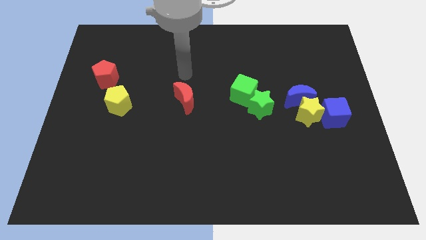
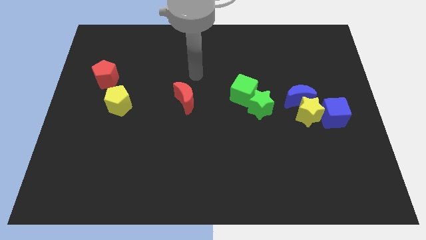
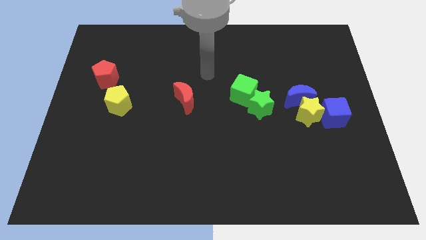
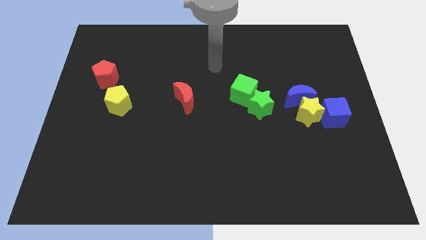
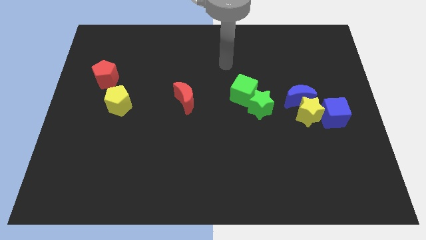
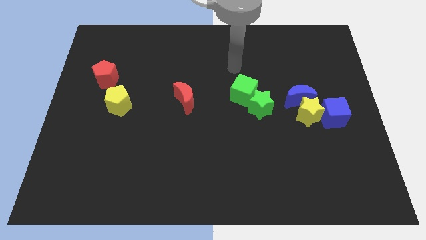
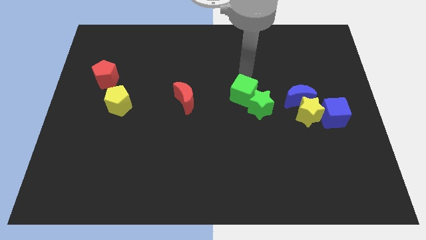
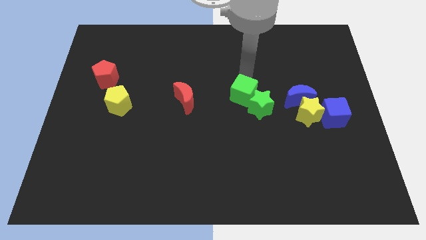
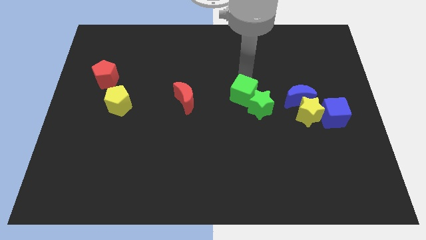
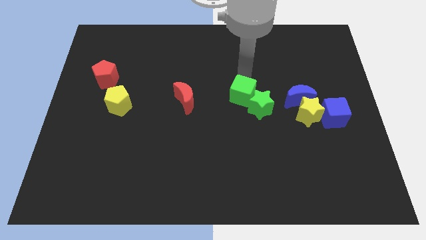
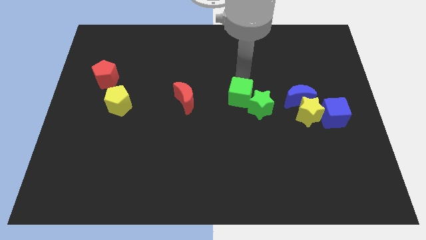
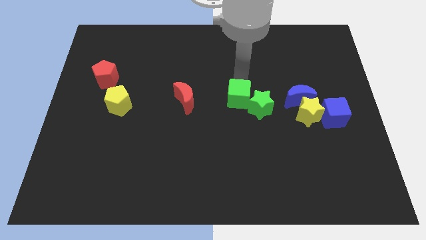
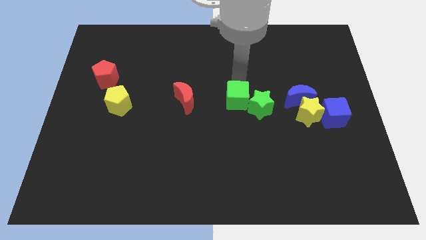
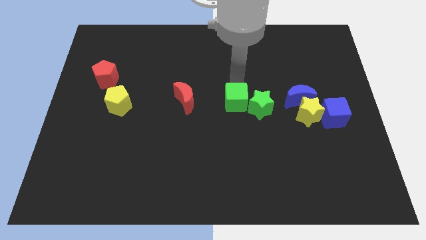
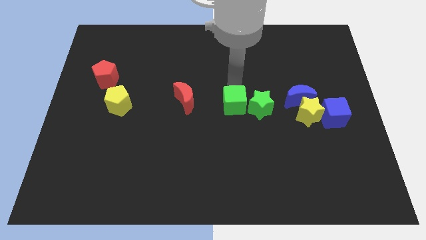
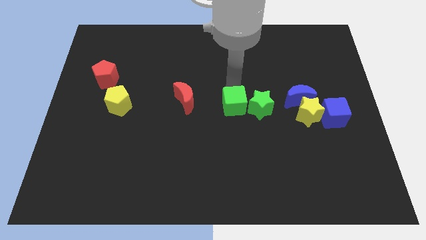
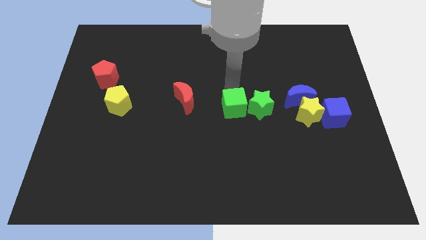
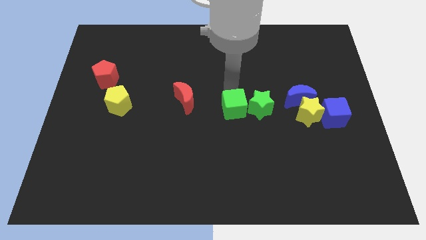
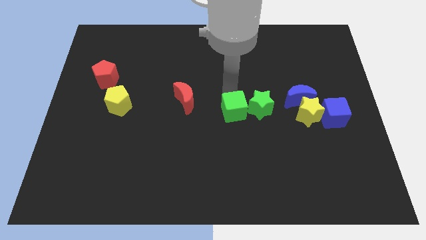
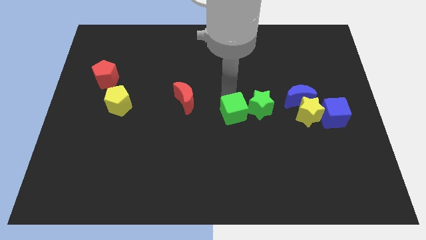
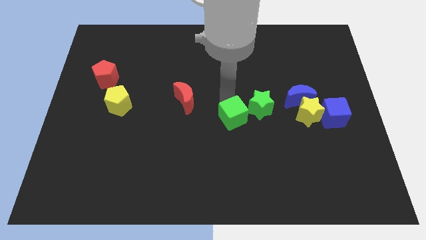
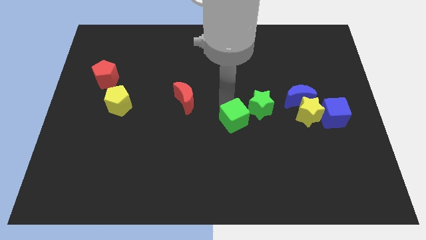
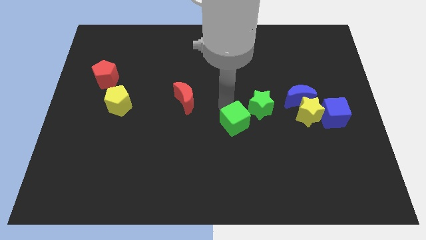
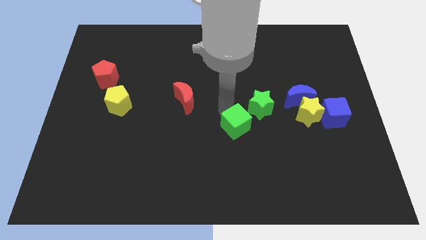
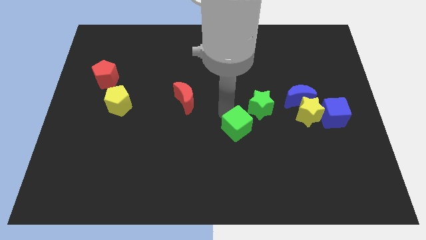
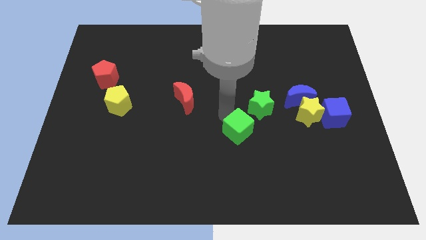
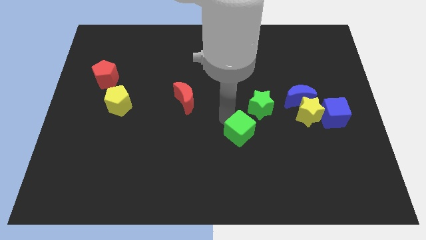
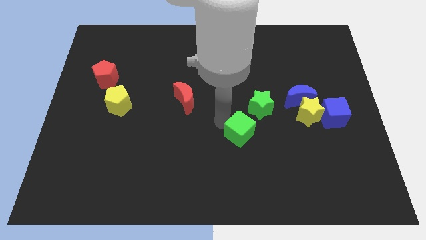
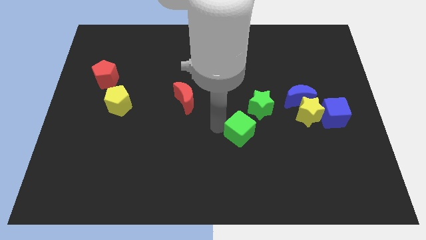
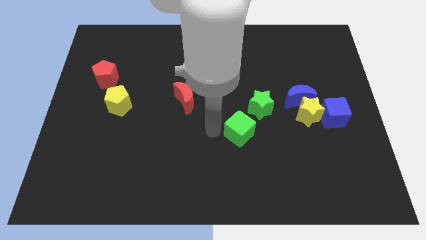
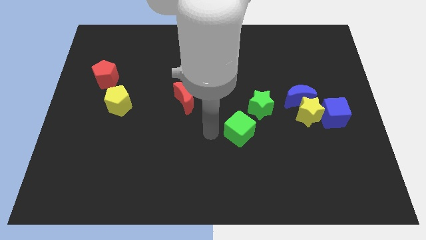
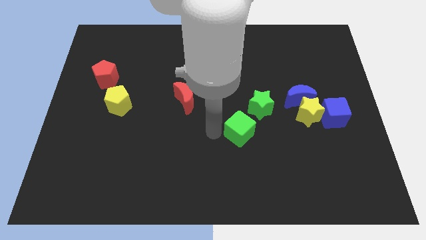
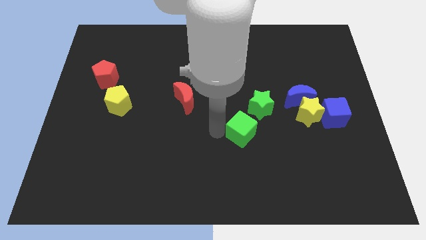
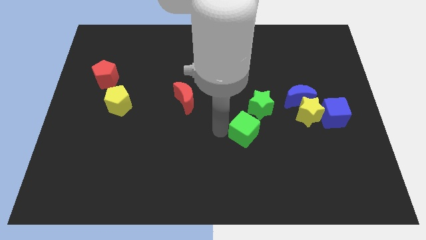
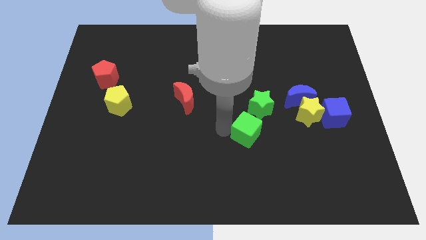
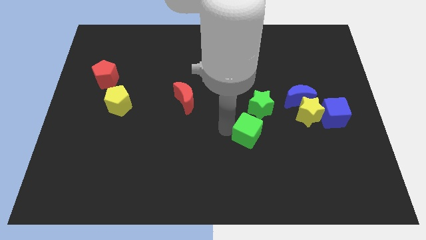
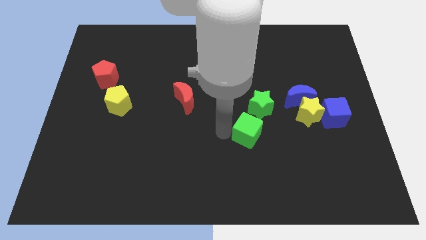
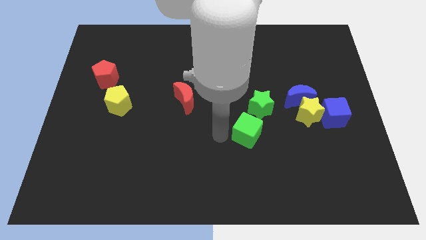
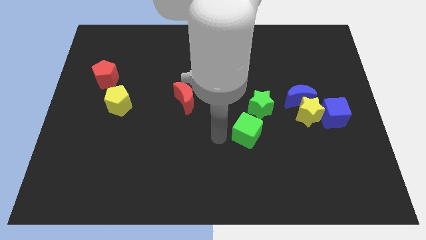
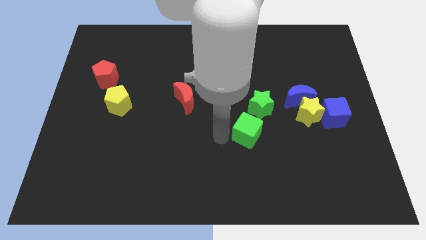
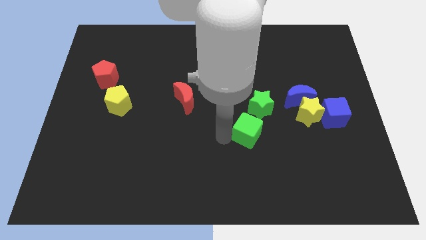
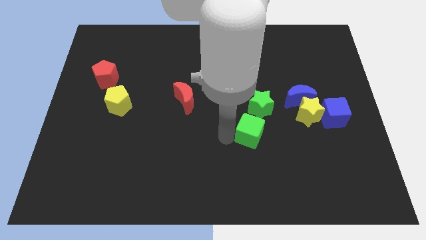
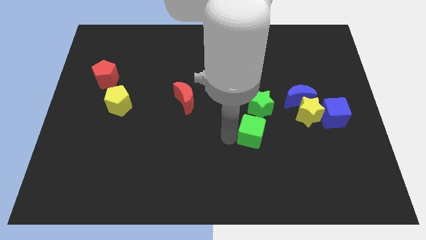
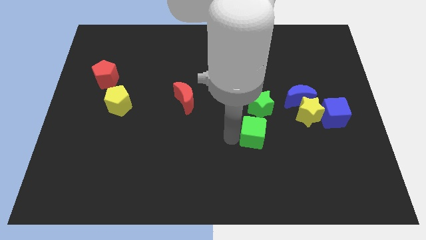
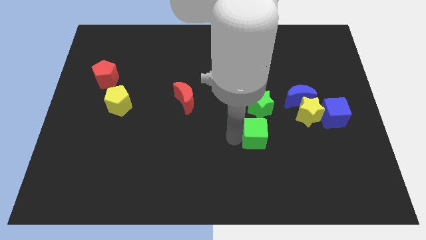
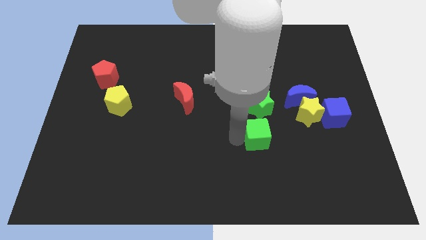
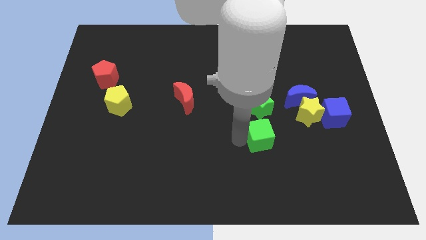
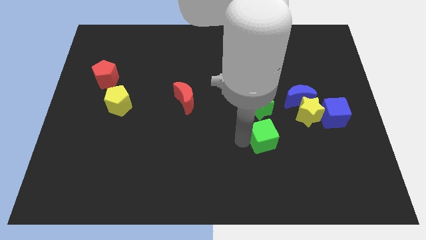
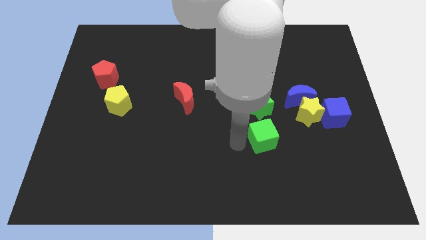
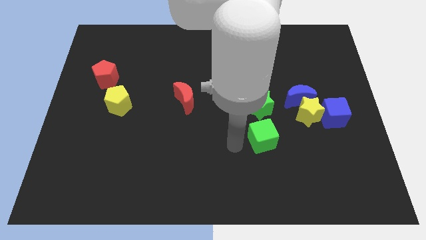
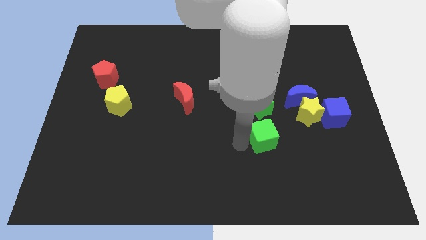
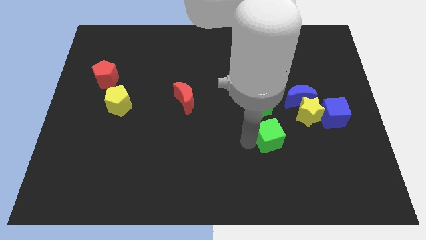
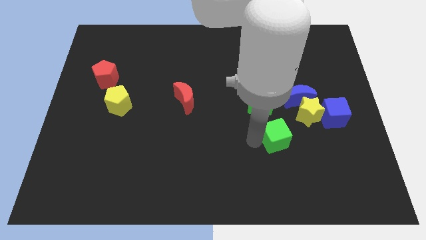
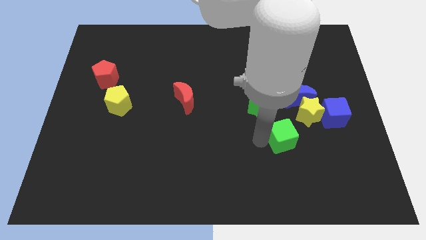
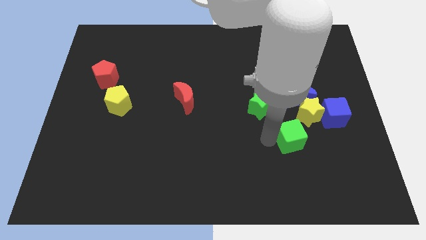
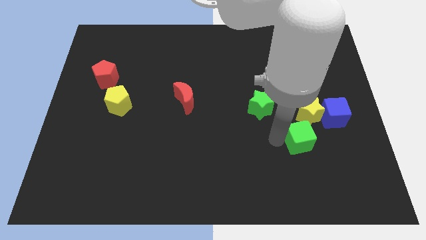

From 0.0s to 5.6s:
put the green cube to the bottom left of the blue cube

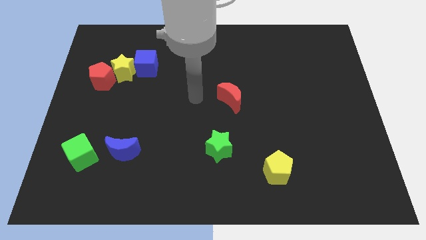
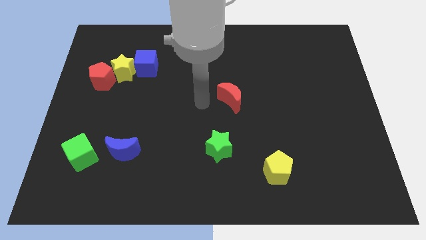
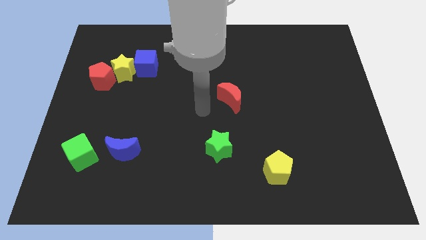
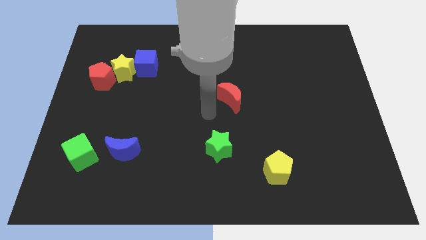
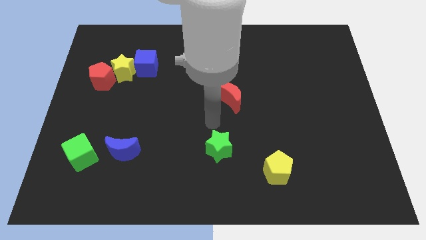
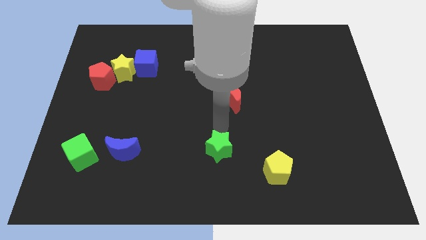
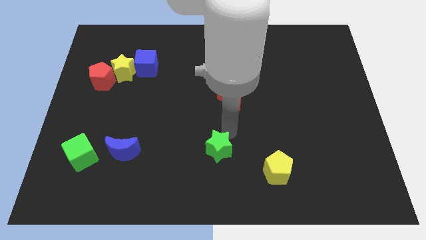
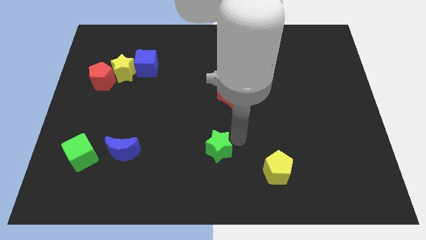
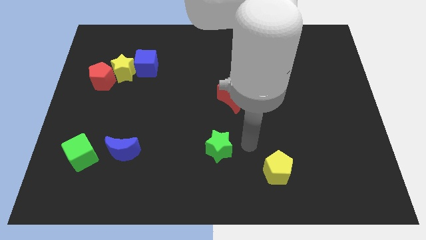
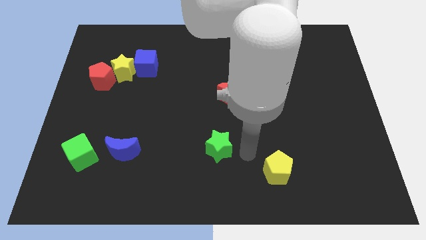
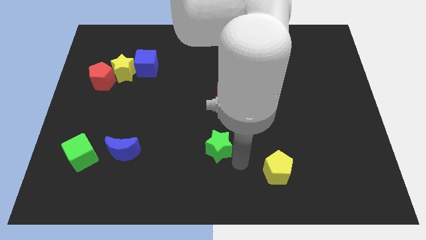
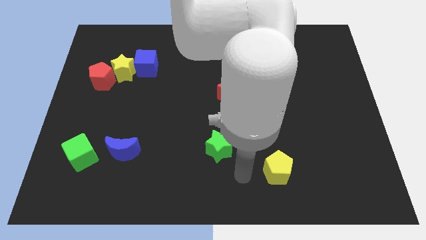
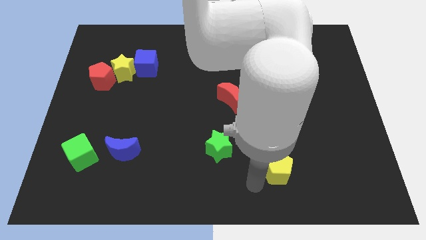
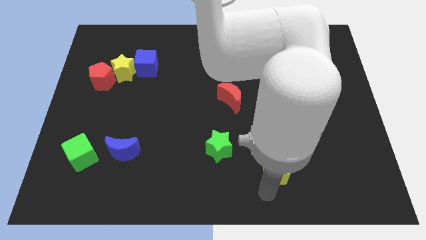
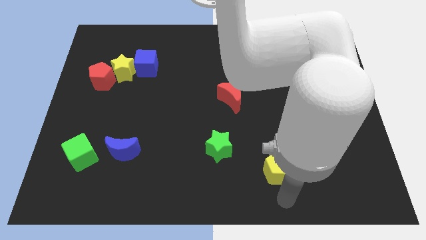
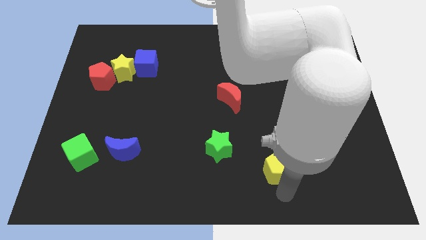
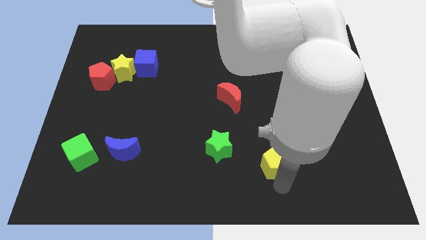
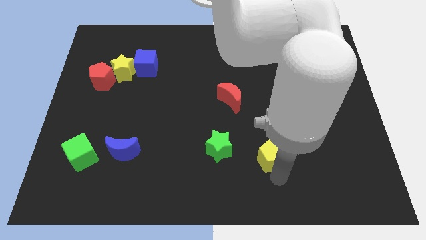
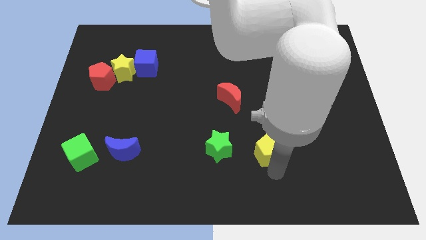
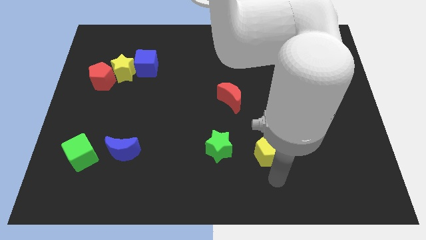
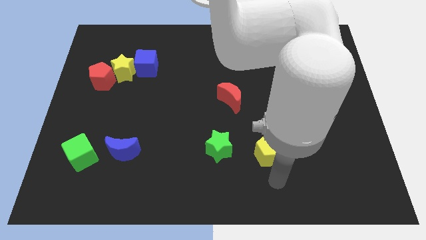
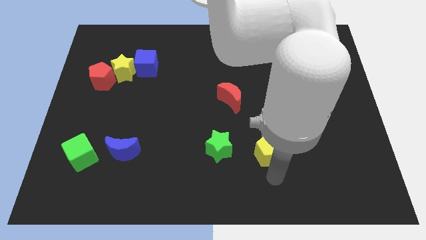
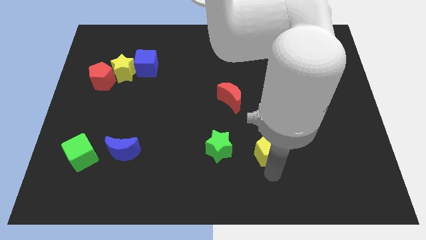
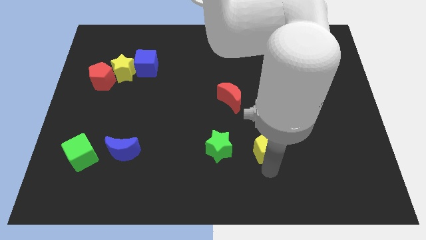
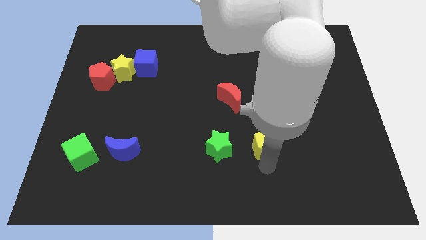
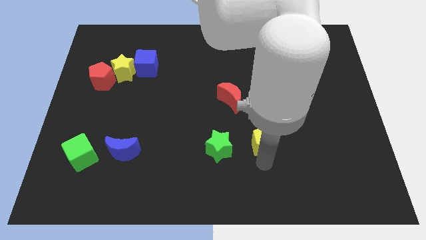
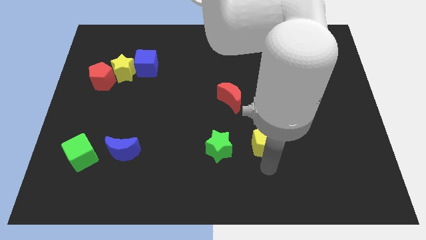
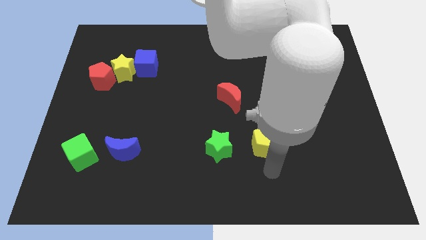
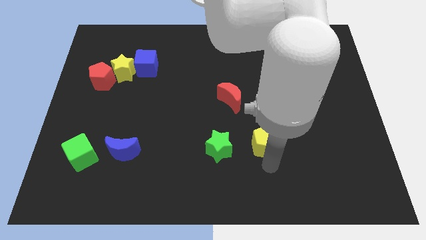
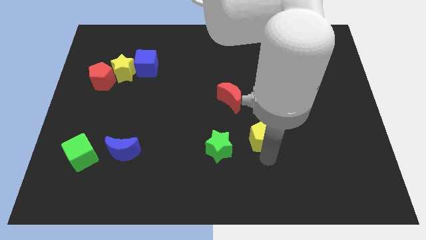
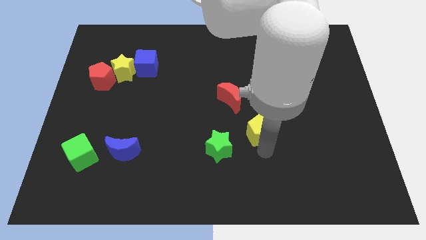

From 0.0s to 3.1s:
move the yellow pentagon diagonally down and to the right of the red moon
